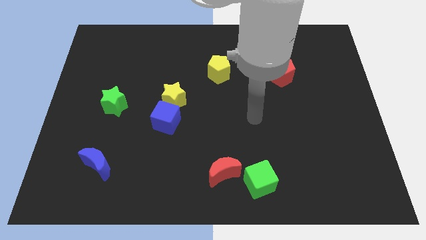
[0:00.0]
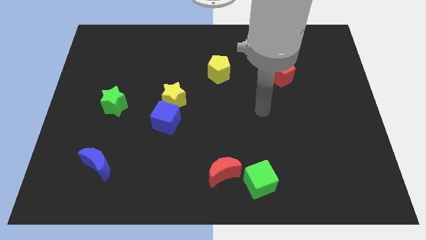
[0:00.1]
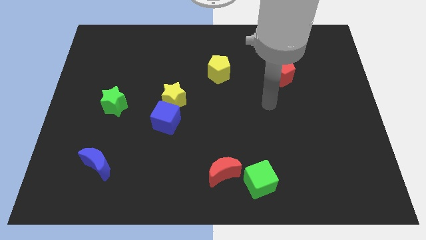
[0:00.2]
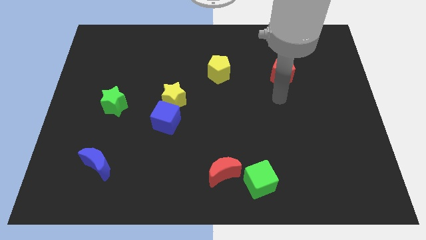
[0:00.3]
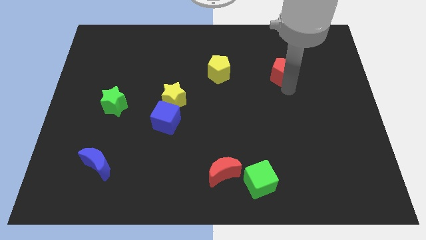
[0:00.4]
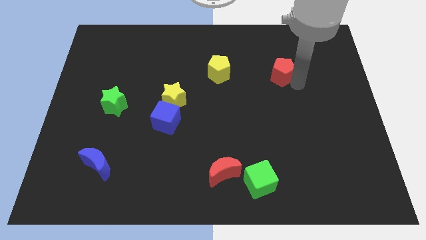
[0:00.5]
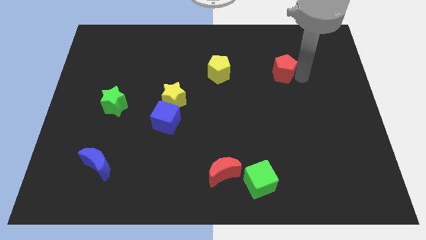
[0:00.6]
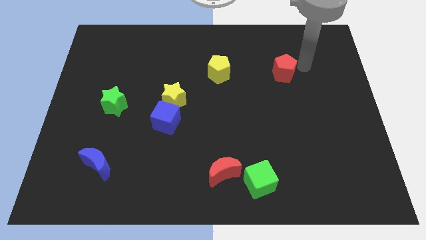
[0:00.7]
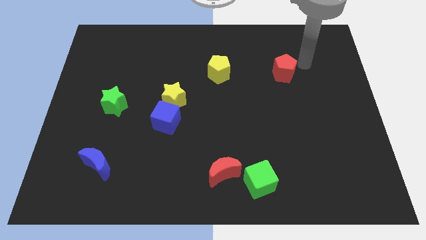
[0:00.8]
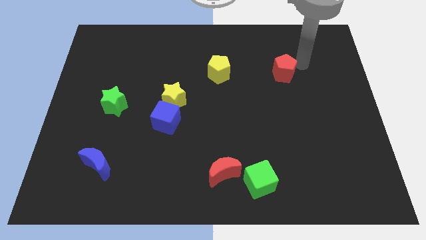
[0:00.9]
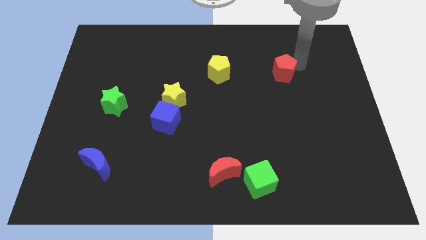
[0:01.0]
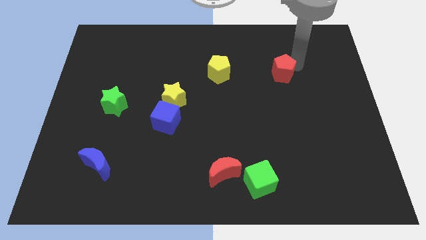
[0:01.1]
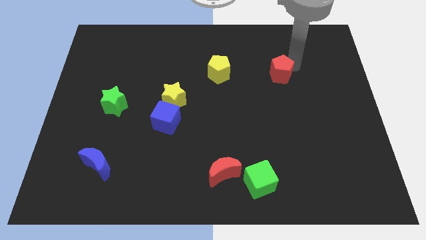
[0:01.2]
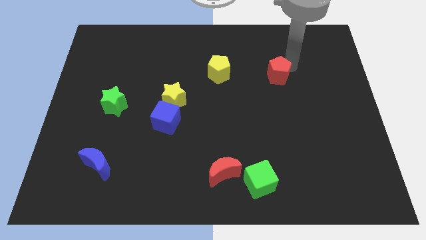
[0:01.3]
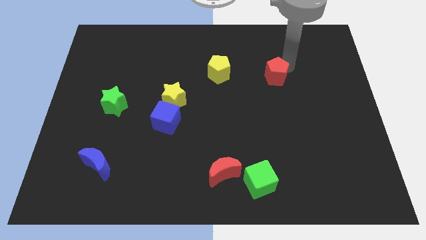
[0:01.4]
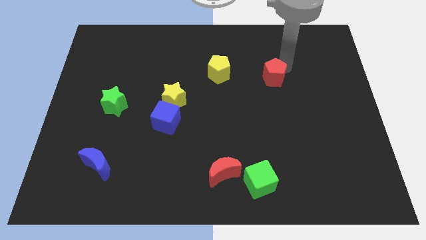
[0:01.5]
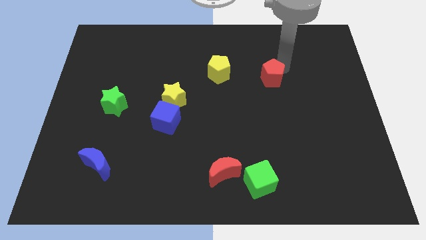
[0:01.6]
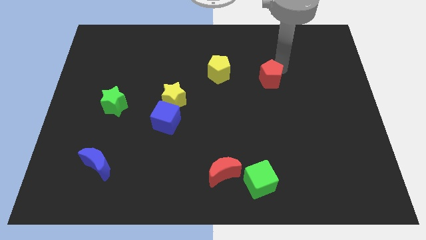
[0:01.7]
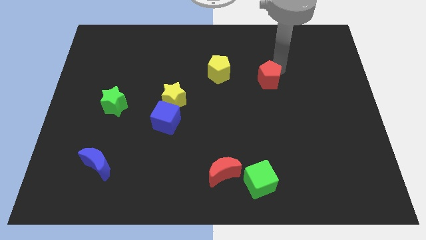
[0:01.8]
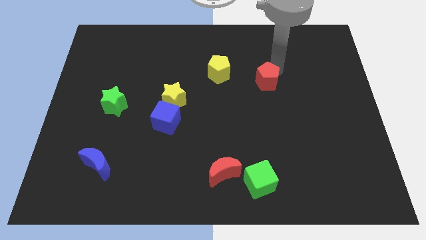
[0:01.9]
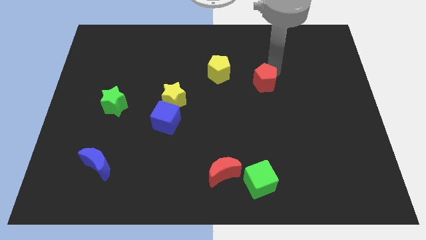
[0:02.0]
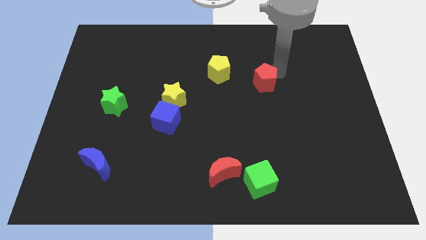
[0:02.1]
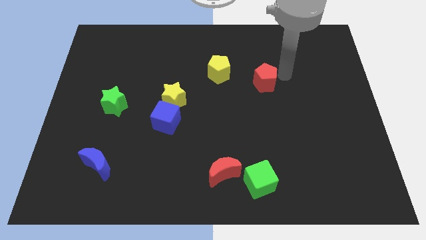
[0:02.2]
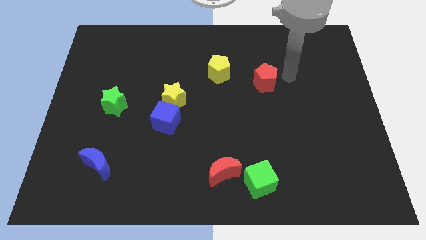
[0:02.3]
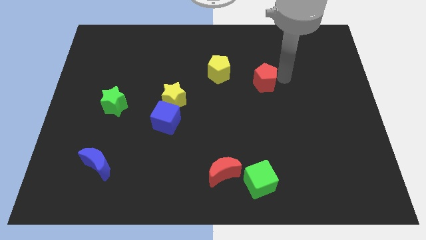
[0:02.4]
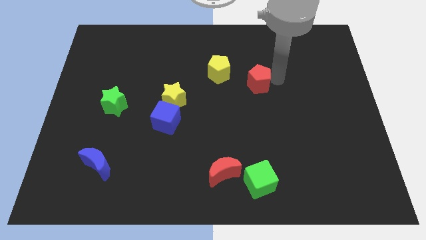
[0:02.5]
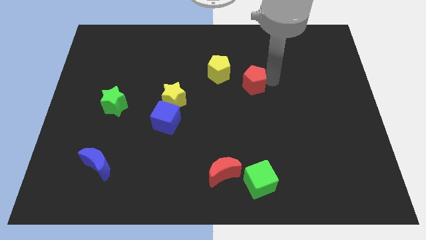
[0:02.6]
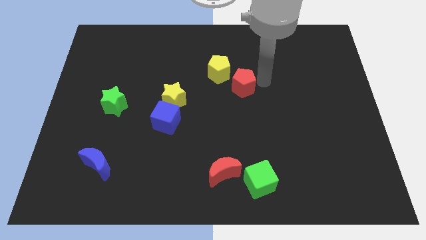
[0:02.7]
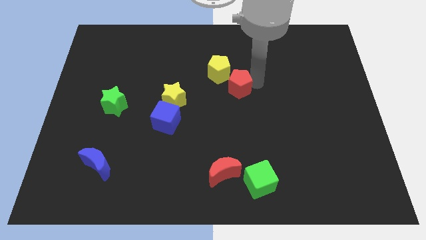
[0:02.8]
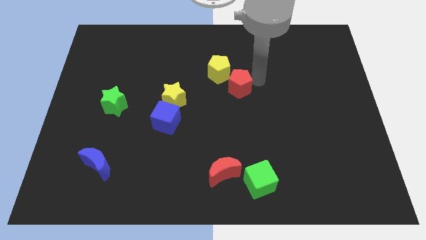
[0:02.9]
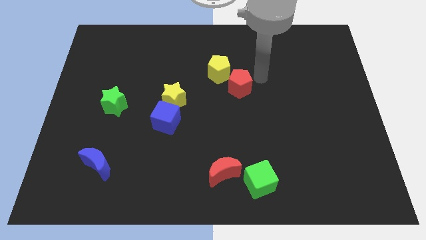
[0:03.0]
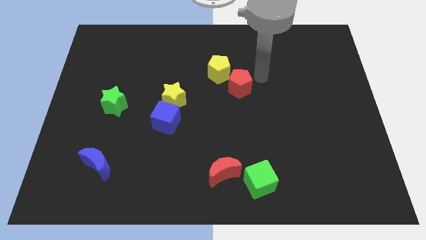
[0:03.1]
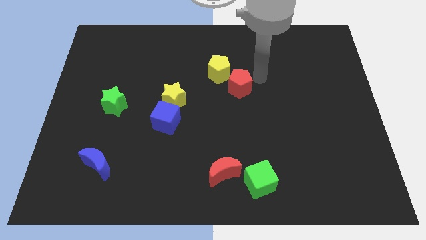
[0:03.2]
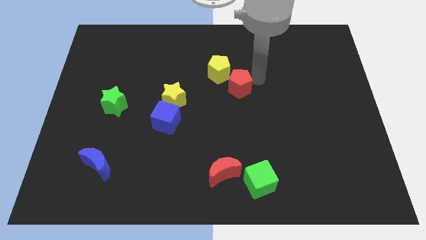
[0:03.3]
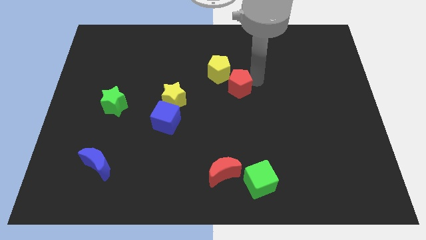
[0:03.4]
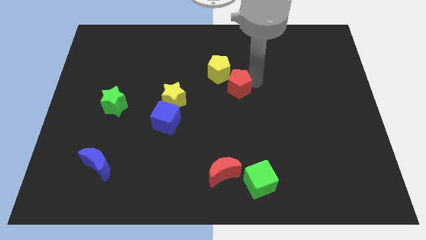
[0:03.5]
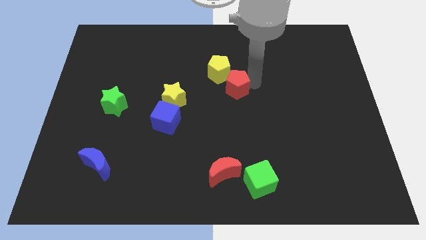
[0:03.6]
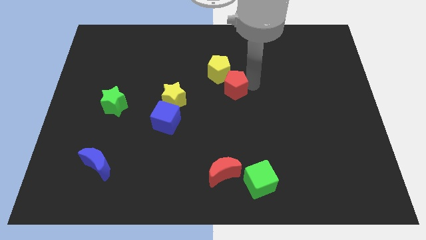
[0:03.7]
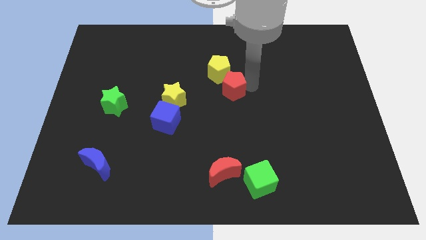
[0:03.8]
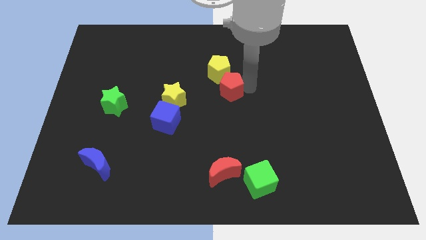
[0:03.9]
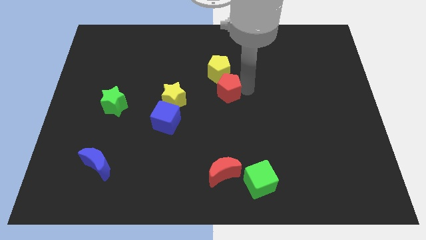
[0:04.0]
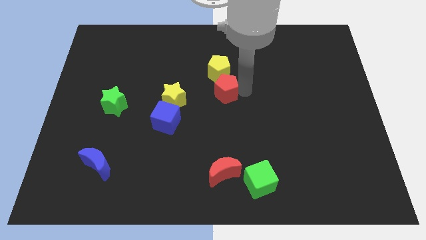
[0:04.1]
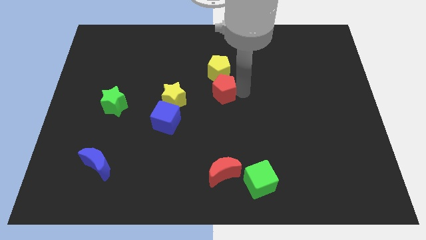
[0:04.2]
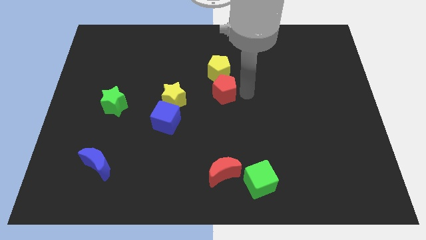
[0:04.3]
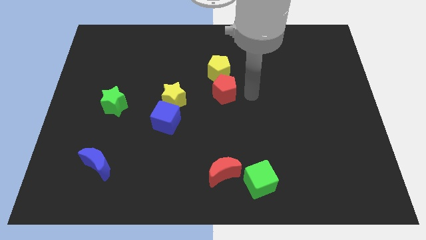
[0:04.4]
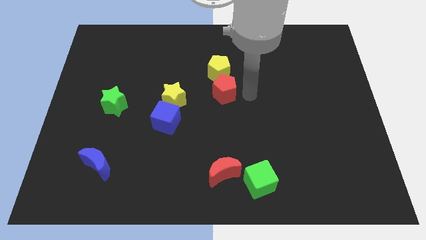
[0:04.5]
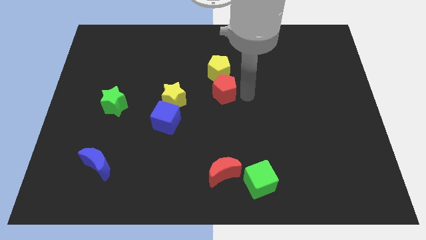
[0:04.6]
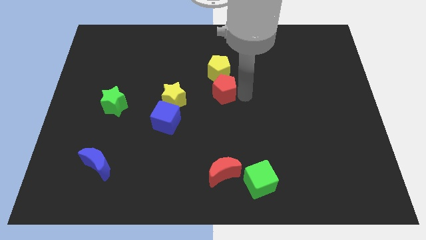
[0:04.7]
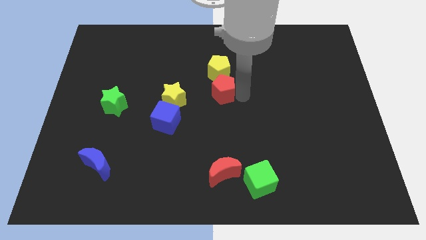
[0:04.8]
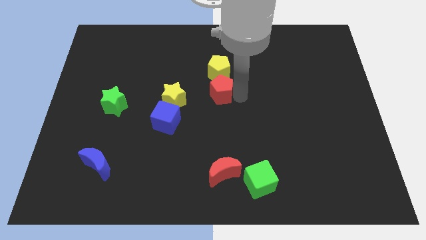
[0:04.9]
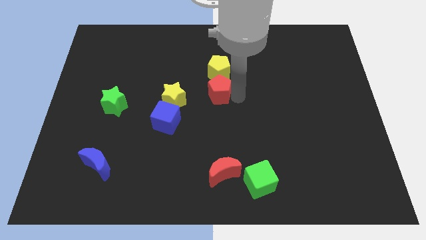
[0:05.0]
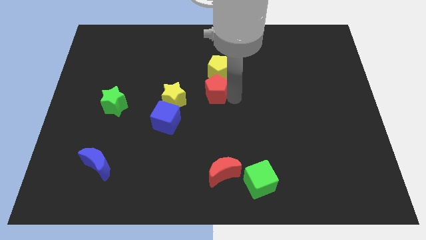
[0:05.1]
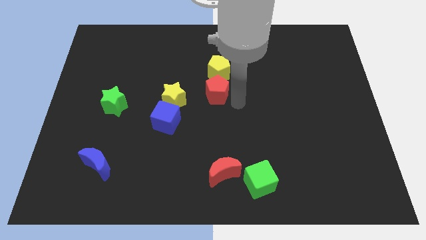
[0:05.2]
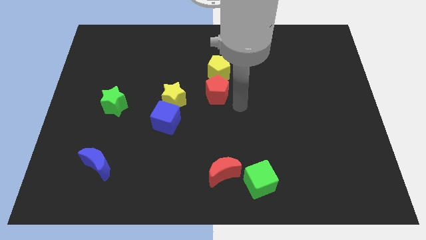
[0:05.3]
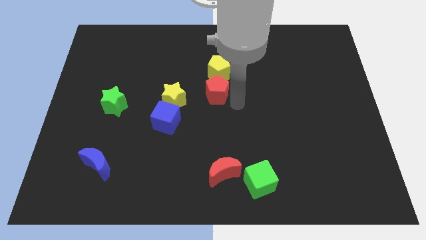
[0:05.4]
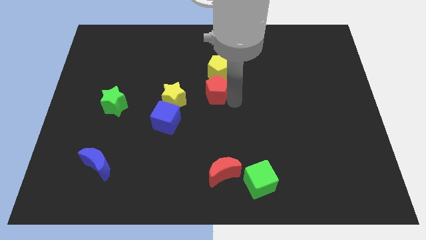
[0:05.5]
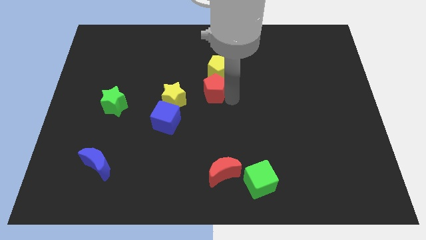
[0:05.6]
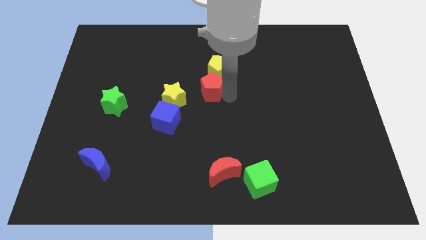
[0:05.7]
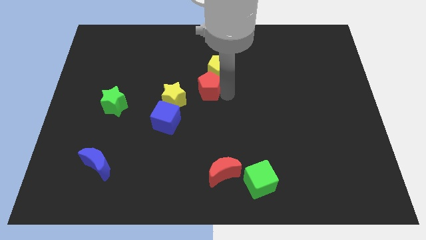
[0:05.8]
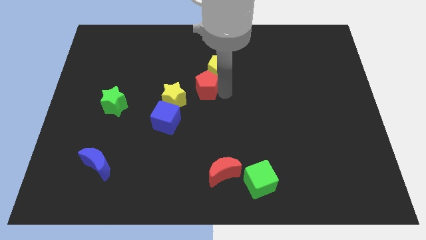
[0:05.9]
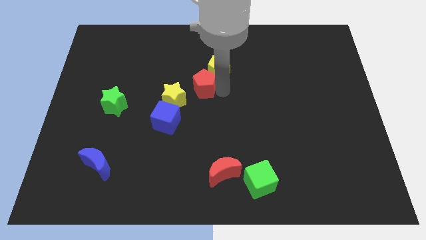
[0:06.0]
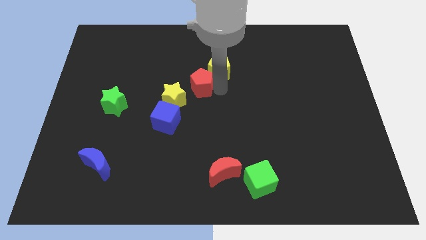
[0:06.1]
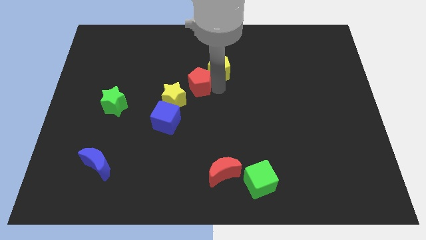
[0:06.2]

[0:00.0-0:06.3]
move the red pentagon left

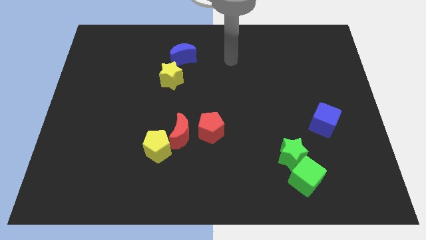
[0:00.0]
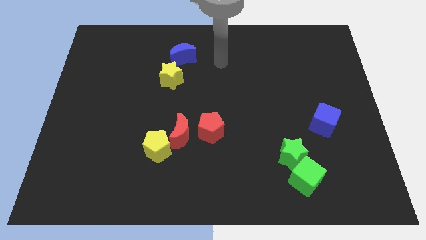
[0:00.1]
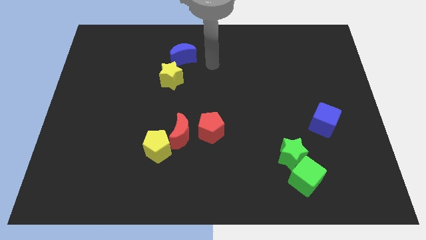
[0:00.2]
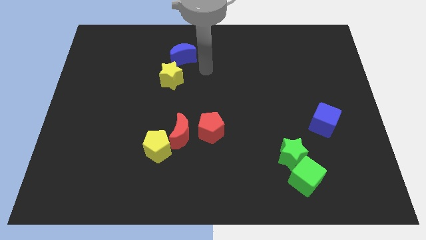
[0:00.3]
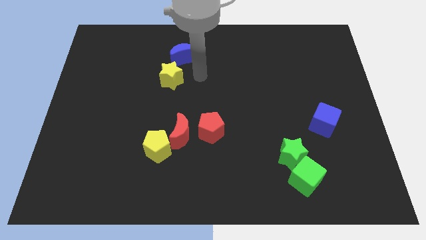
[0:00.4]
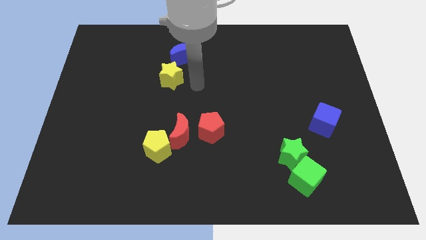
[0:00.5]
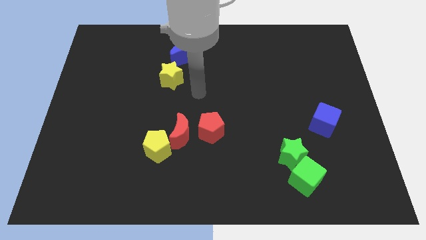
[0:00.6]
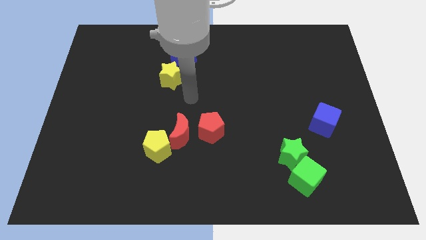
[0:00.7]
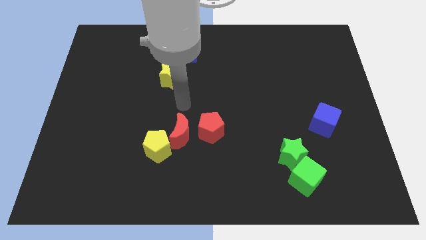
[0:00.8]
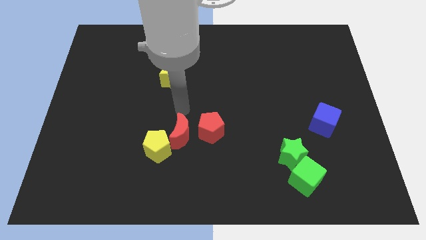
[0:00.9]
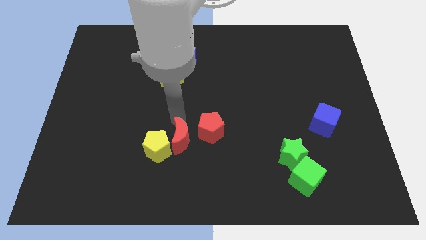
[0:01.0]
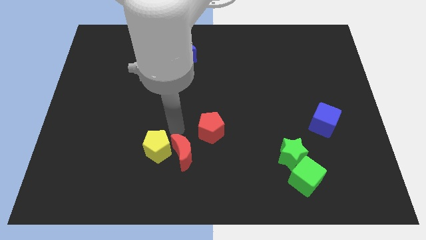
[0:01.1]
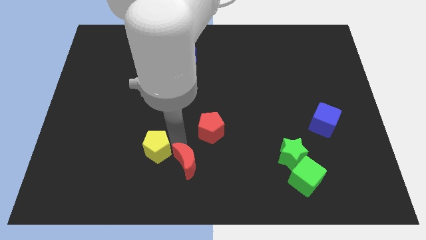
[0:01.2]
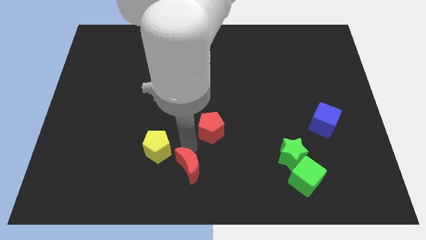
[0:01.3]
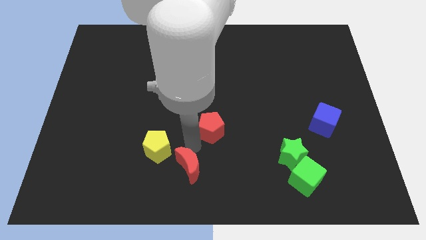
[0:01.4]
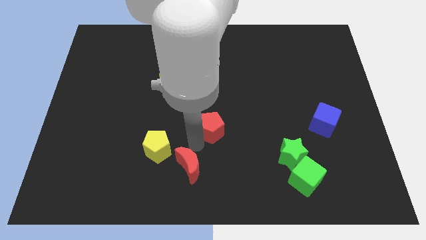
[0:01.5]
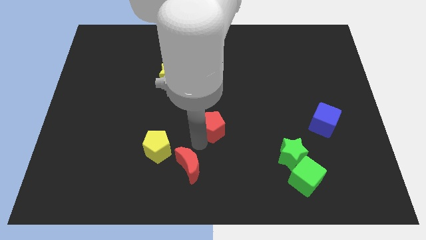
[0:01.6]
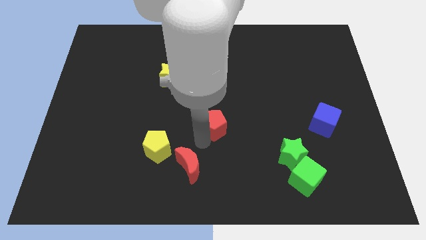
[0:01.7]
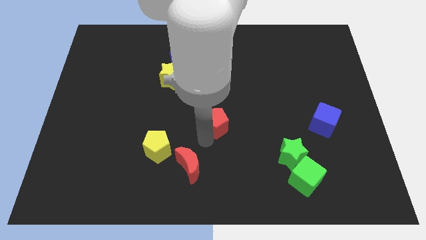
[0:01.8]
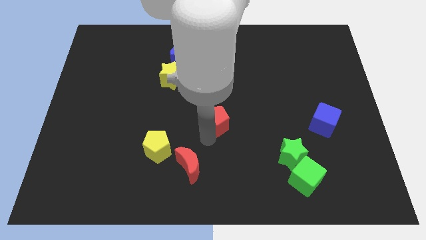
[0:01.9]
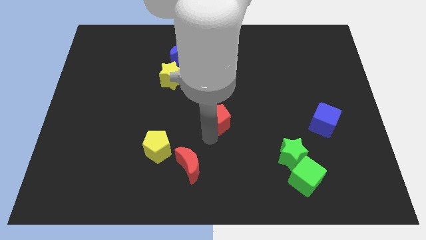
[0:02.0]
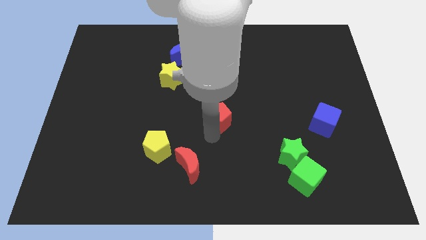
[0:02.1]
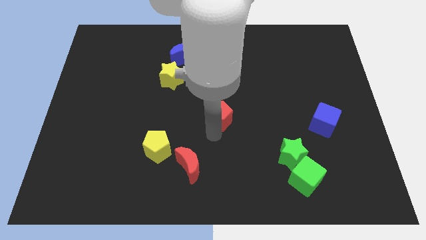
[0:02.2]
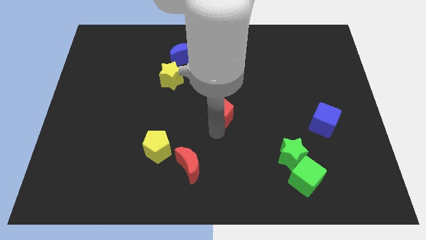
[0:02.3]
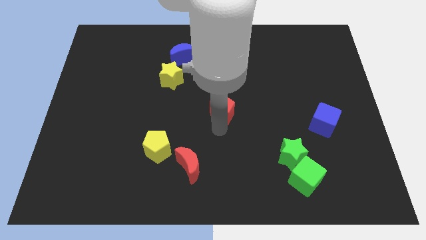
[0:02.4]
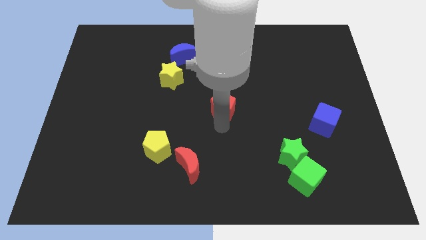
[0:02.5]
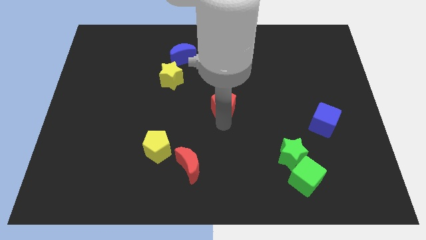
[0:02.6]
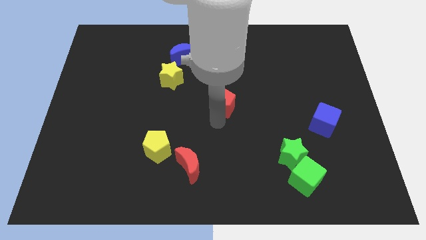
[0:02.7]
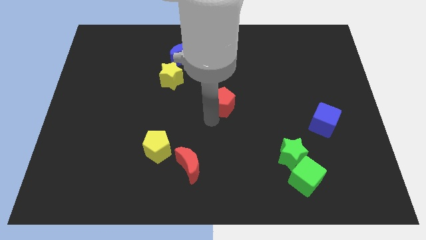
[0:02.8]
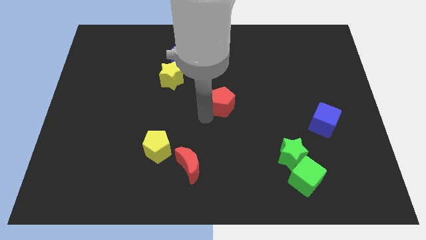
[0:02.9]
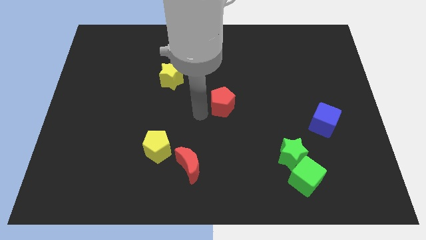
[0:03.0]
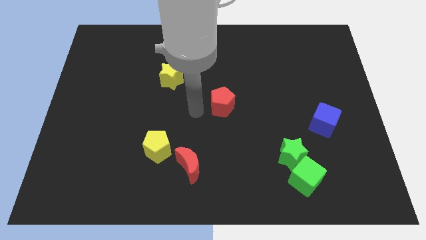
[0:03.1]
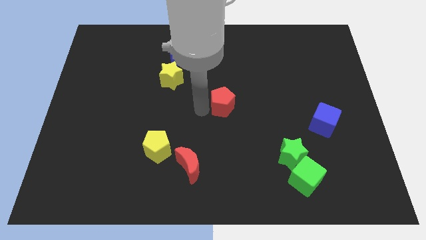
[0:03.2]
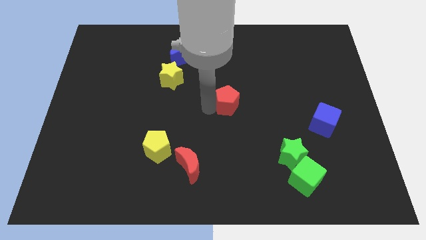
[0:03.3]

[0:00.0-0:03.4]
slide the red pentagon up and then right a bit
